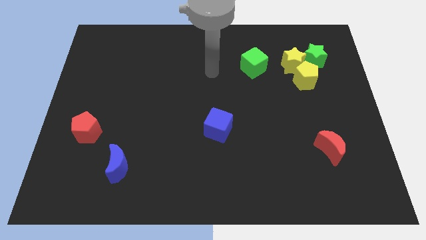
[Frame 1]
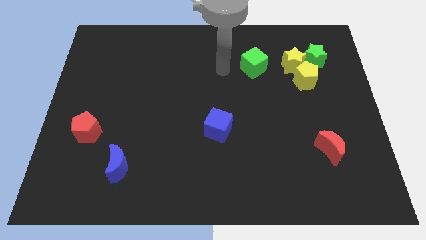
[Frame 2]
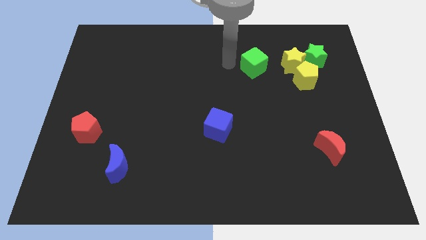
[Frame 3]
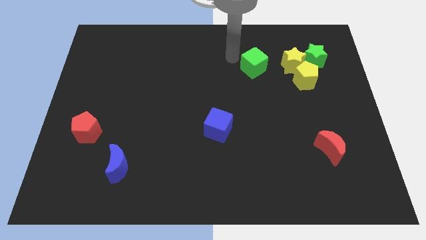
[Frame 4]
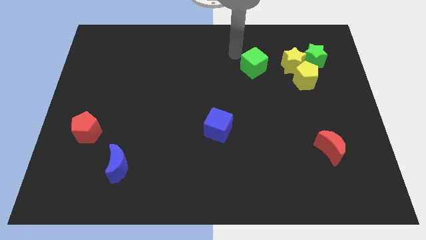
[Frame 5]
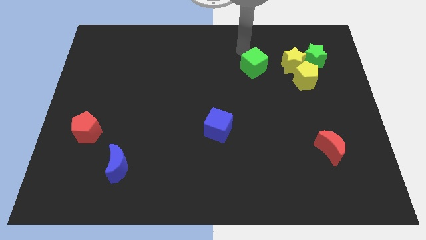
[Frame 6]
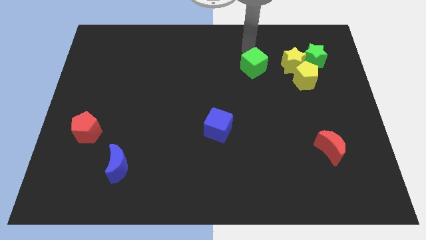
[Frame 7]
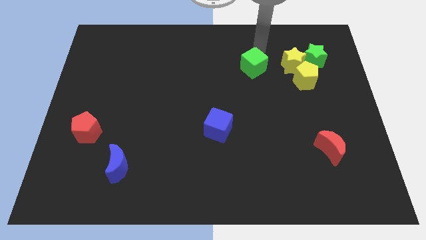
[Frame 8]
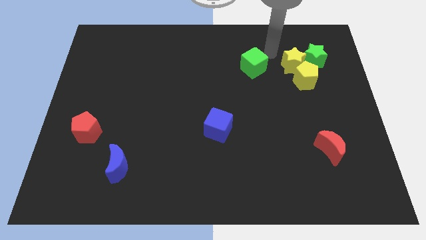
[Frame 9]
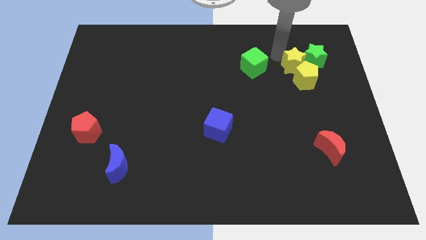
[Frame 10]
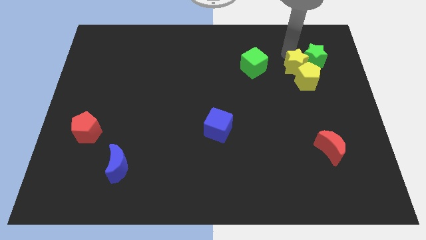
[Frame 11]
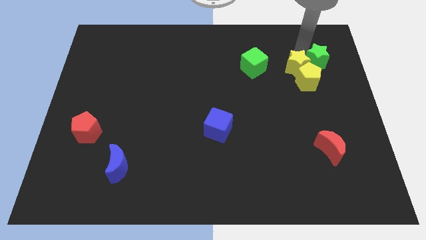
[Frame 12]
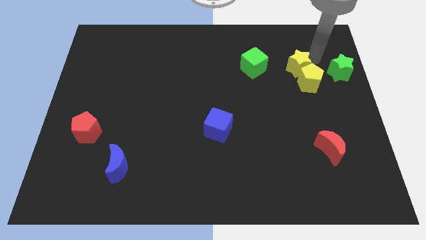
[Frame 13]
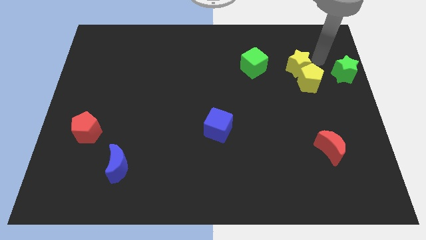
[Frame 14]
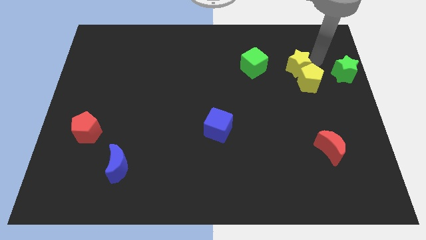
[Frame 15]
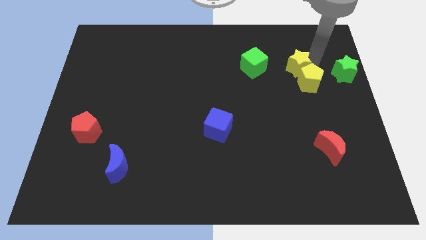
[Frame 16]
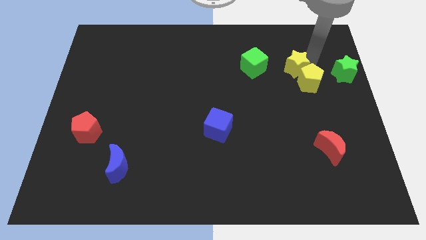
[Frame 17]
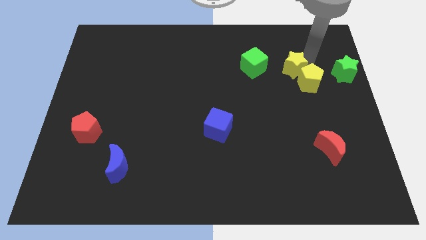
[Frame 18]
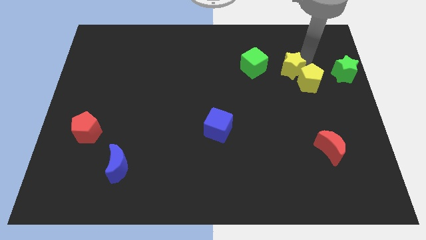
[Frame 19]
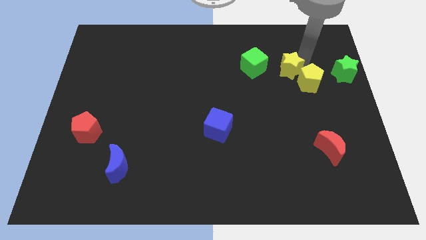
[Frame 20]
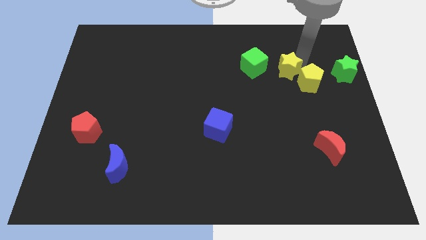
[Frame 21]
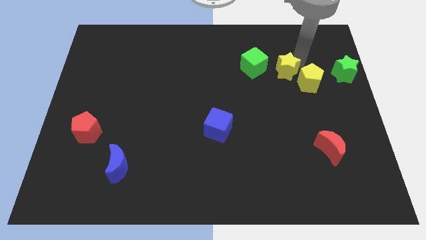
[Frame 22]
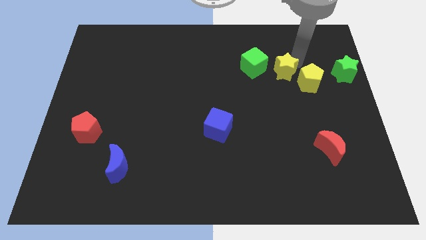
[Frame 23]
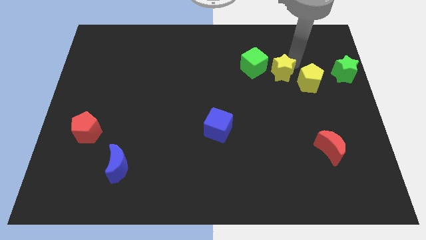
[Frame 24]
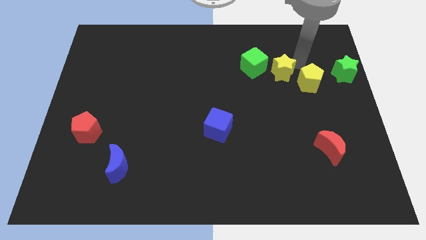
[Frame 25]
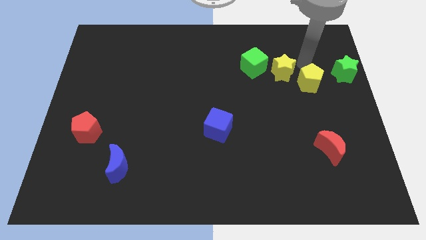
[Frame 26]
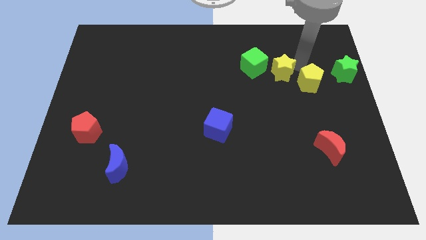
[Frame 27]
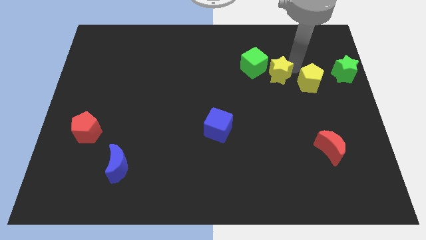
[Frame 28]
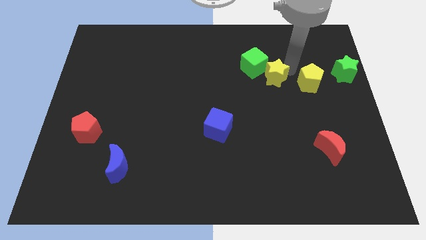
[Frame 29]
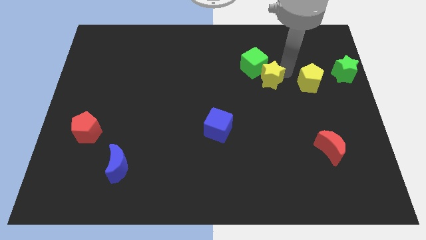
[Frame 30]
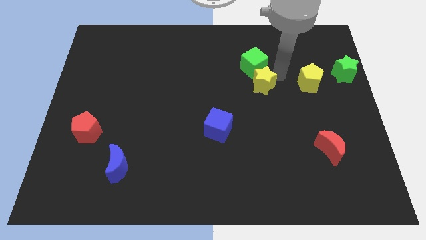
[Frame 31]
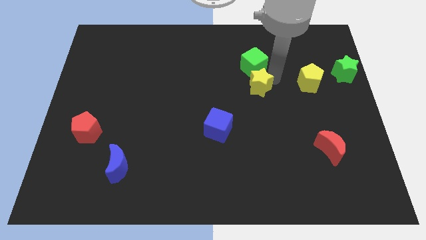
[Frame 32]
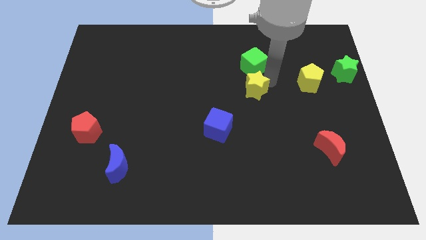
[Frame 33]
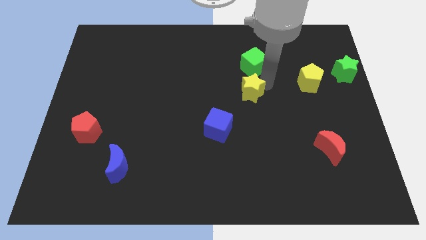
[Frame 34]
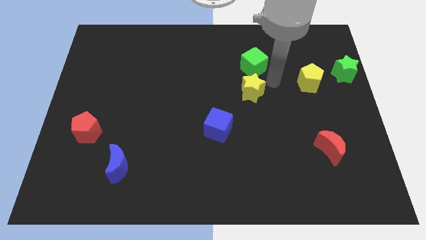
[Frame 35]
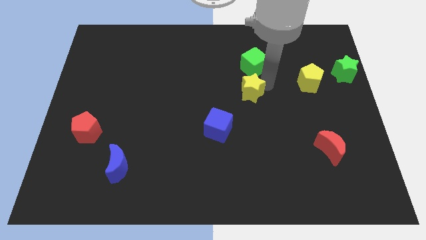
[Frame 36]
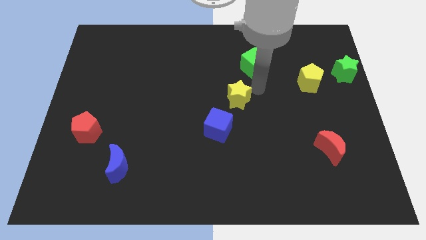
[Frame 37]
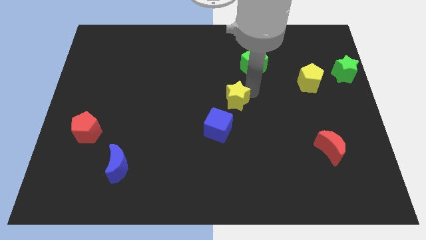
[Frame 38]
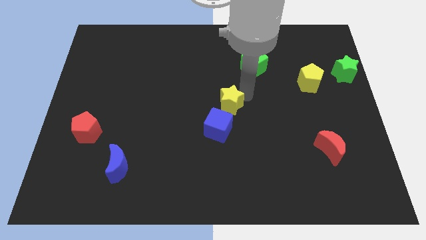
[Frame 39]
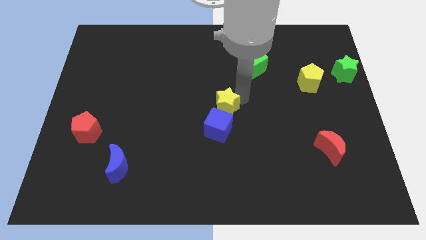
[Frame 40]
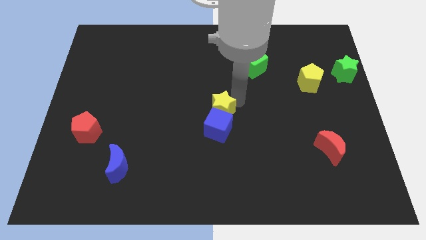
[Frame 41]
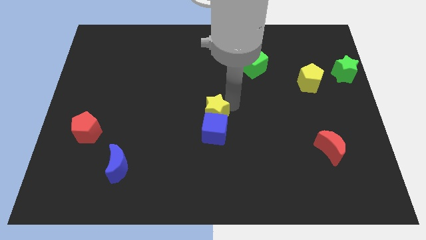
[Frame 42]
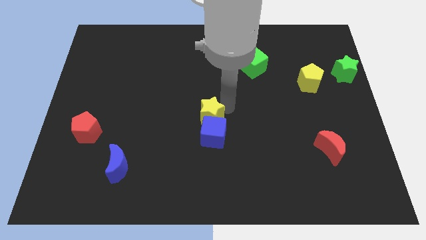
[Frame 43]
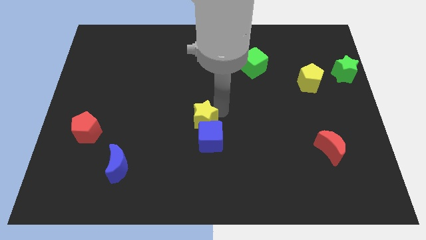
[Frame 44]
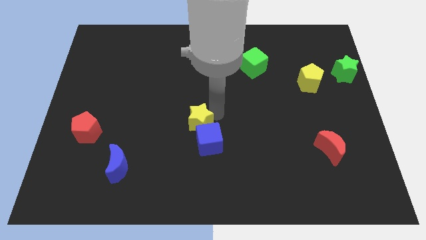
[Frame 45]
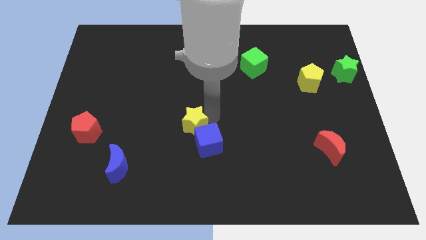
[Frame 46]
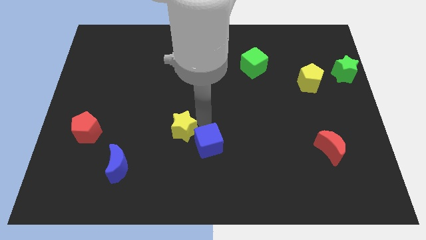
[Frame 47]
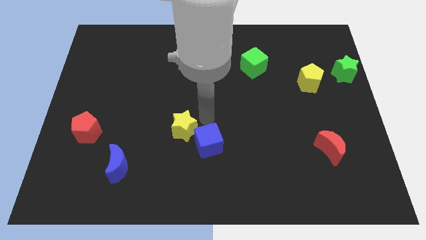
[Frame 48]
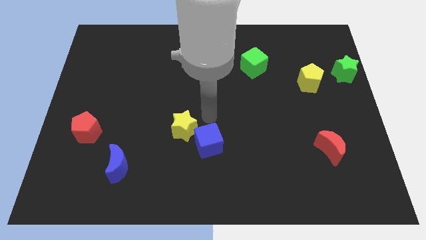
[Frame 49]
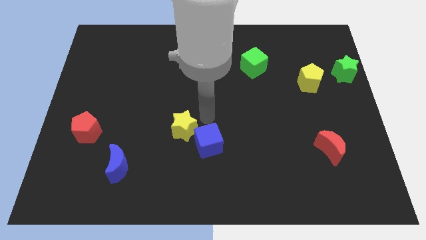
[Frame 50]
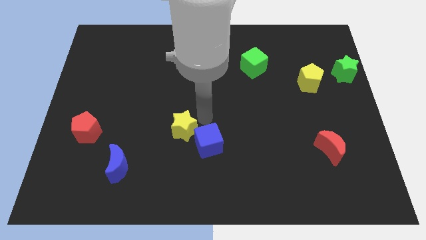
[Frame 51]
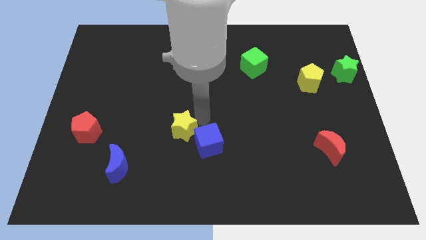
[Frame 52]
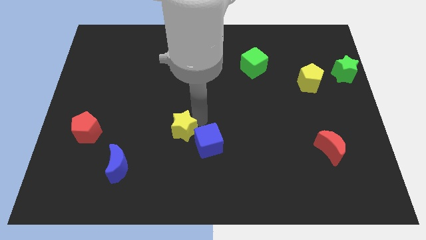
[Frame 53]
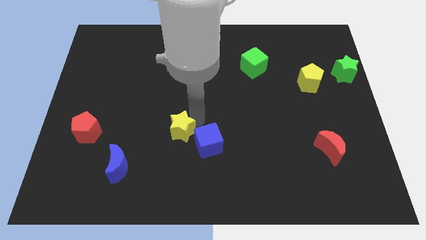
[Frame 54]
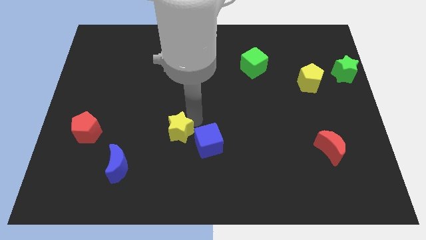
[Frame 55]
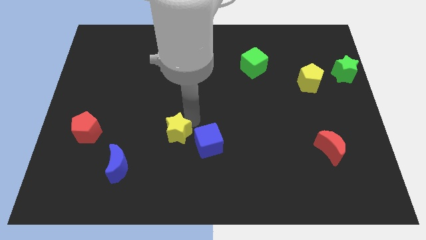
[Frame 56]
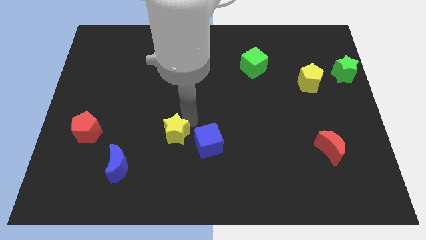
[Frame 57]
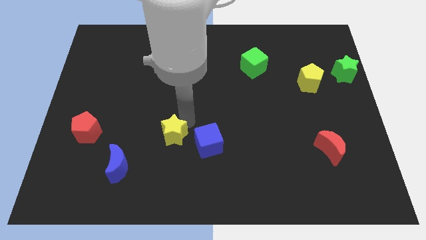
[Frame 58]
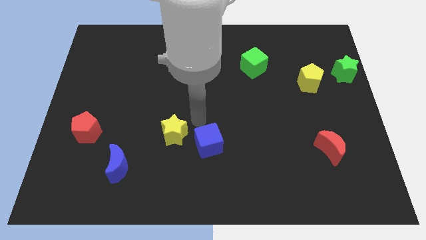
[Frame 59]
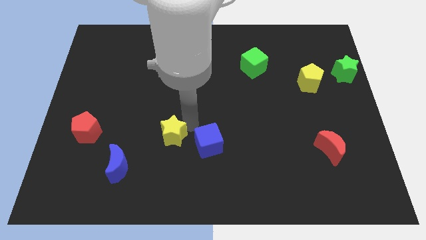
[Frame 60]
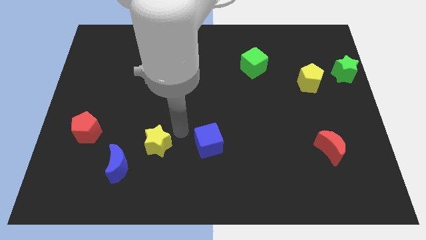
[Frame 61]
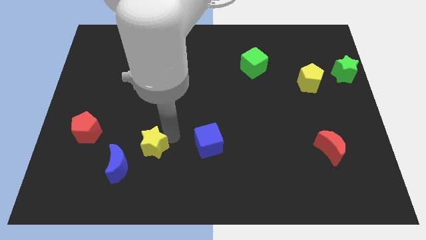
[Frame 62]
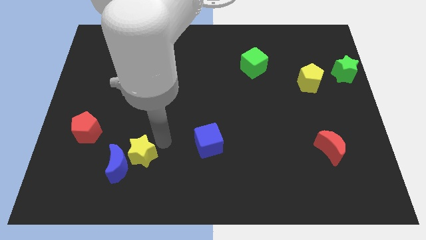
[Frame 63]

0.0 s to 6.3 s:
slide the yellow star to the blue moon

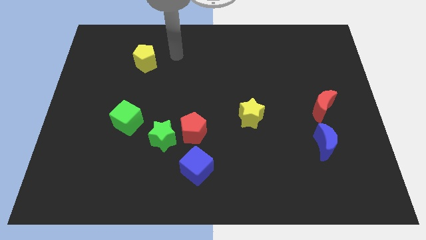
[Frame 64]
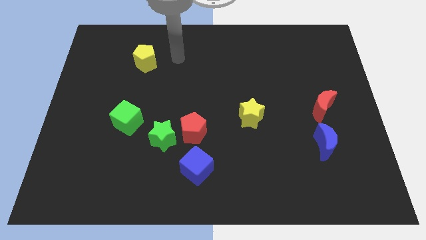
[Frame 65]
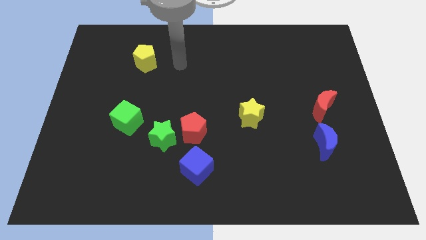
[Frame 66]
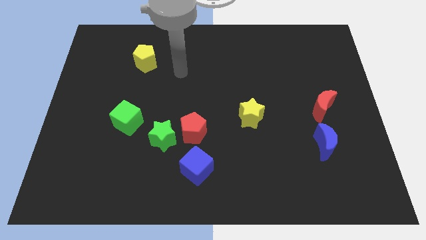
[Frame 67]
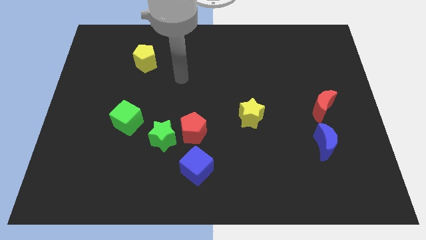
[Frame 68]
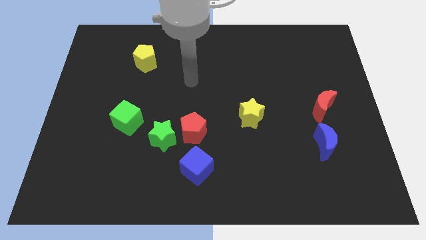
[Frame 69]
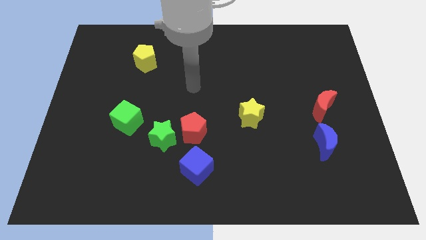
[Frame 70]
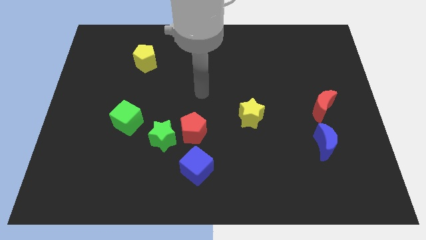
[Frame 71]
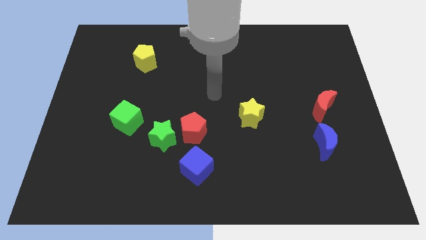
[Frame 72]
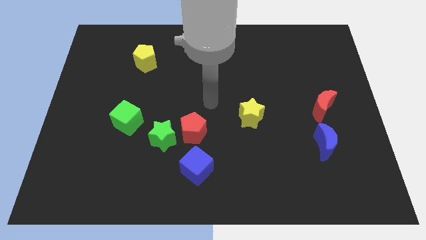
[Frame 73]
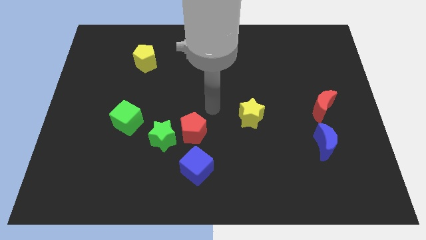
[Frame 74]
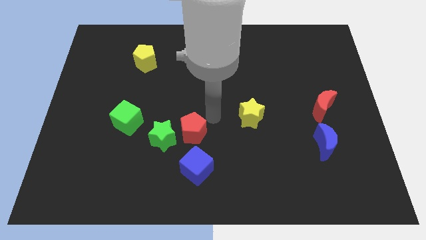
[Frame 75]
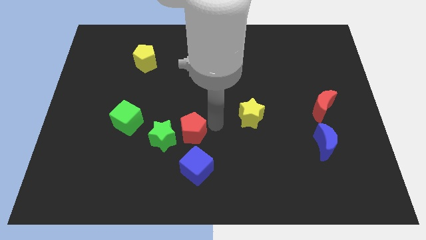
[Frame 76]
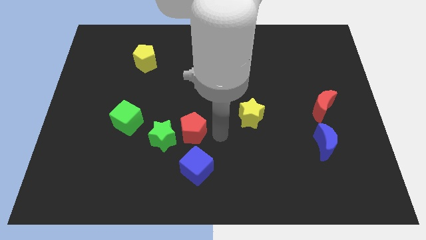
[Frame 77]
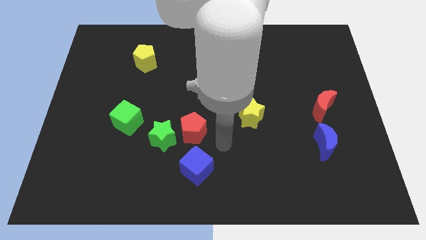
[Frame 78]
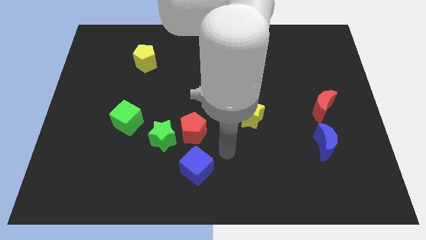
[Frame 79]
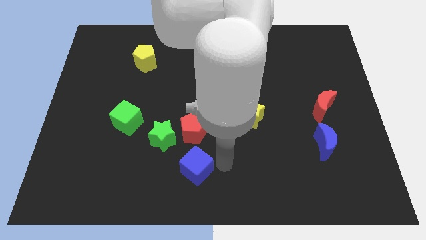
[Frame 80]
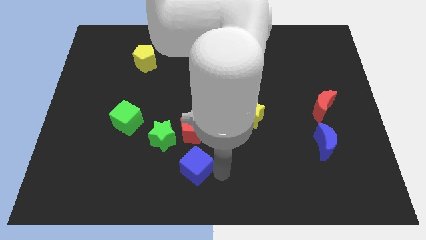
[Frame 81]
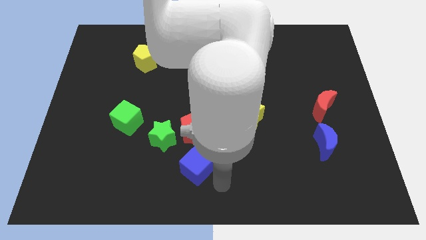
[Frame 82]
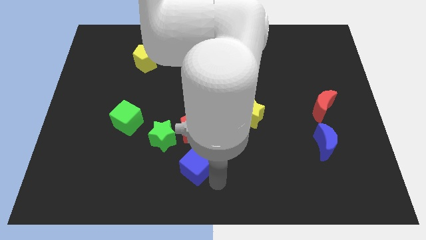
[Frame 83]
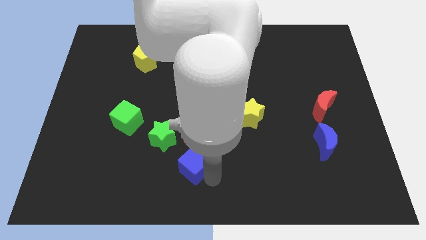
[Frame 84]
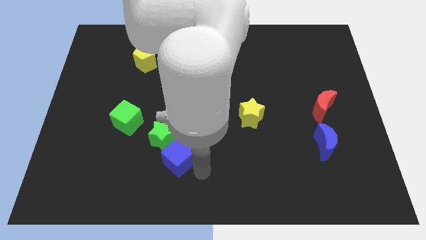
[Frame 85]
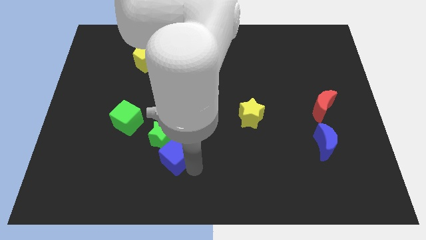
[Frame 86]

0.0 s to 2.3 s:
put the blue cube towards the green star
